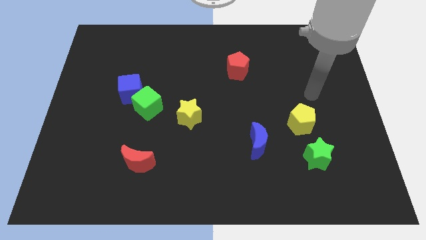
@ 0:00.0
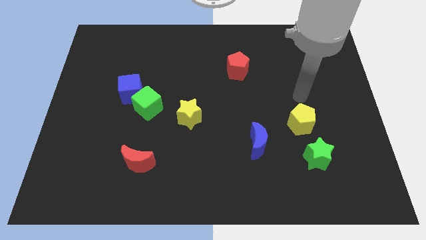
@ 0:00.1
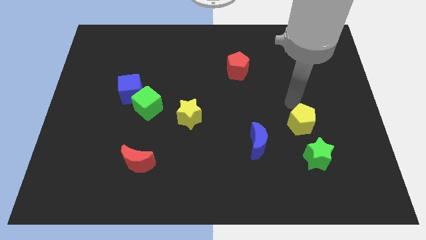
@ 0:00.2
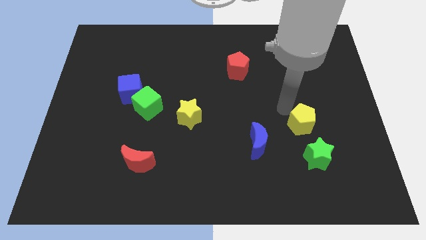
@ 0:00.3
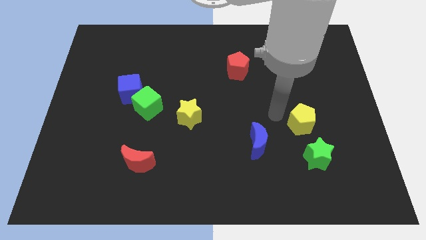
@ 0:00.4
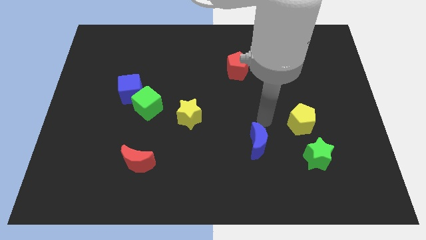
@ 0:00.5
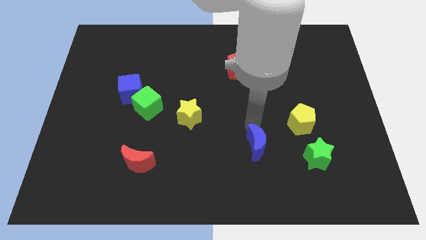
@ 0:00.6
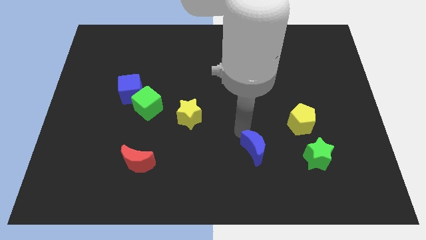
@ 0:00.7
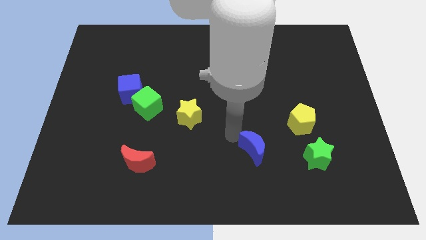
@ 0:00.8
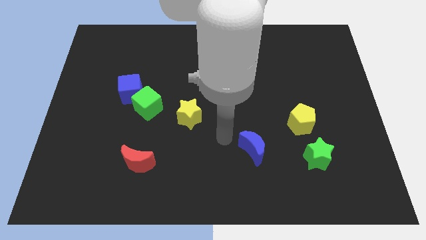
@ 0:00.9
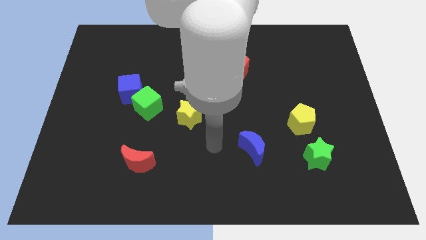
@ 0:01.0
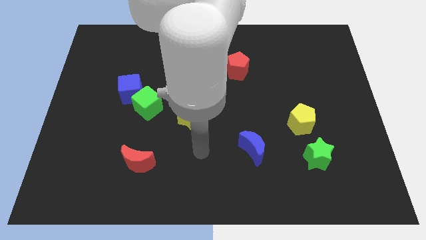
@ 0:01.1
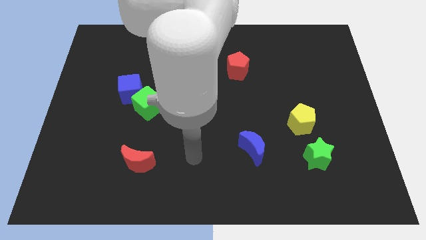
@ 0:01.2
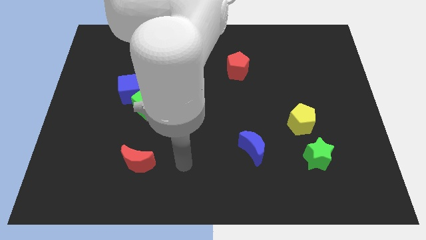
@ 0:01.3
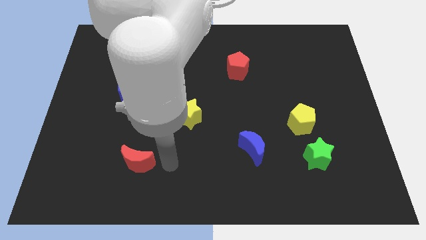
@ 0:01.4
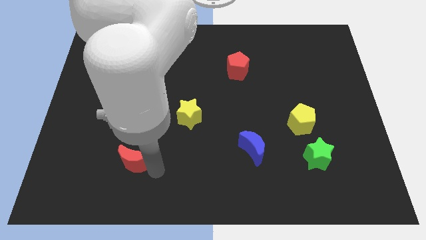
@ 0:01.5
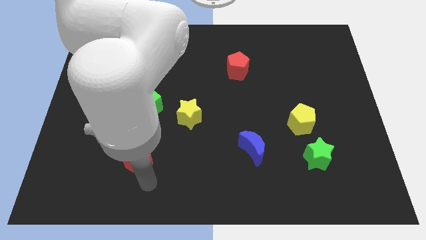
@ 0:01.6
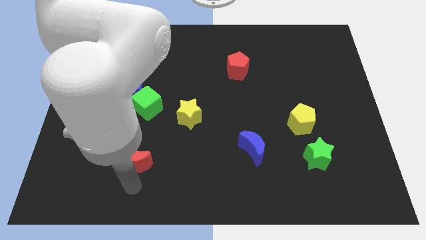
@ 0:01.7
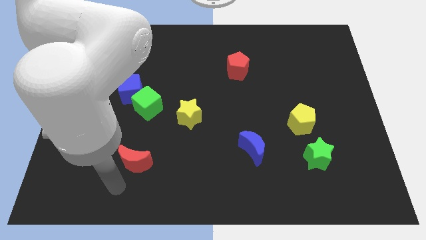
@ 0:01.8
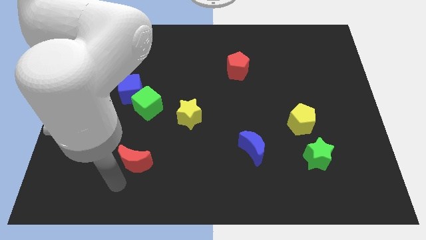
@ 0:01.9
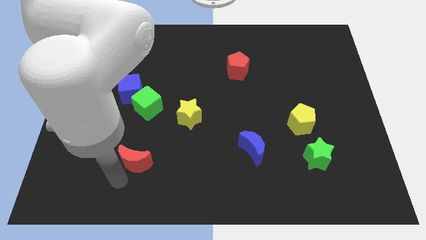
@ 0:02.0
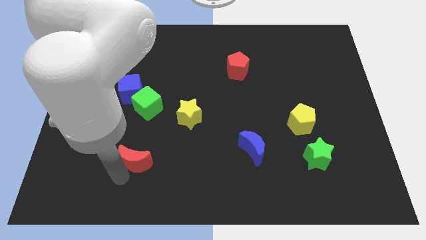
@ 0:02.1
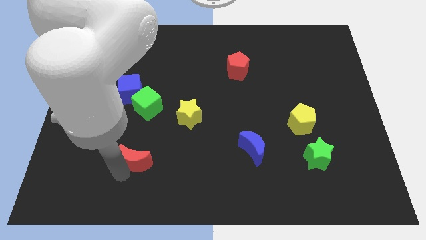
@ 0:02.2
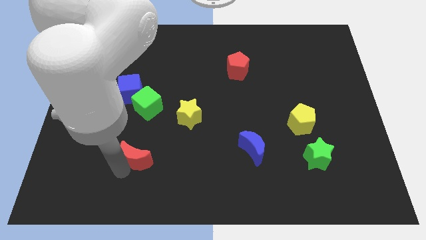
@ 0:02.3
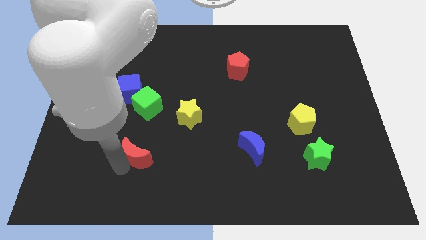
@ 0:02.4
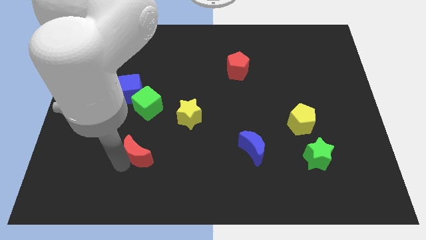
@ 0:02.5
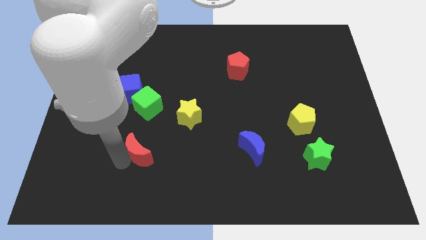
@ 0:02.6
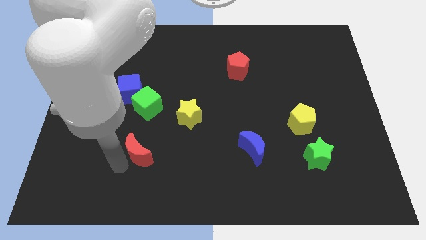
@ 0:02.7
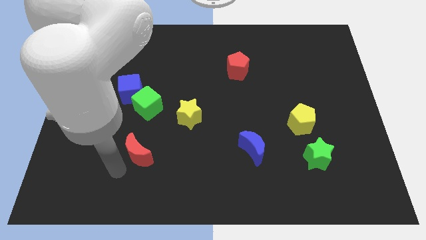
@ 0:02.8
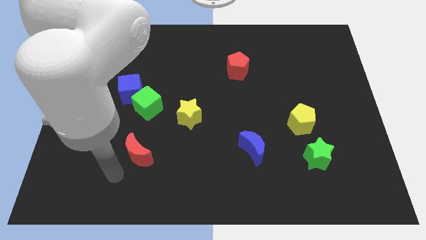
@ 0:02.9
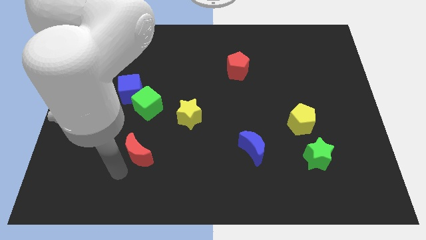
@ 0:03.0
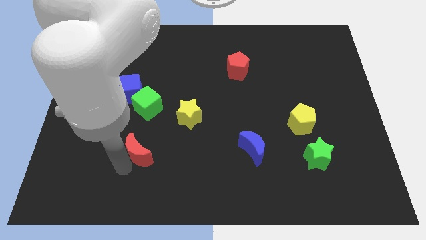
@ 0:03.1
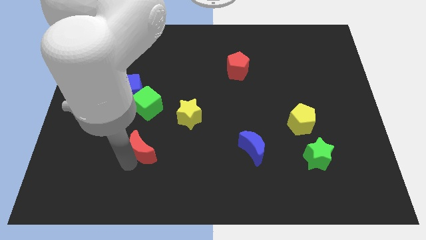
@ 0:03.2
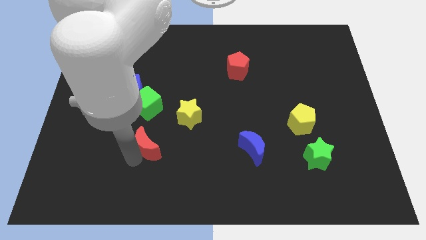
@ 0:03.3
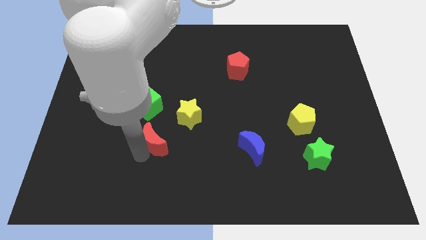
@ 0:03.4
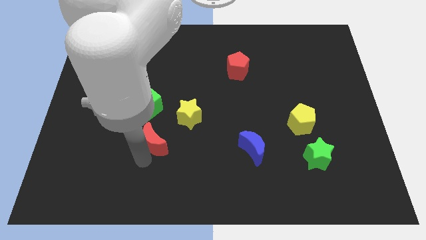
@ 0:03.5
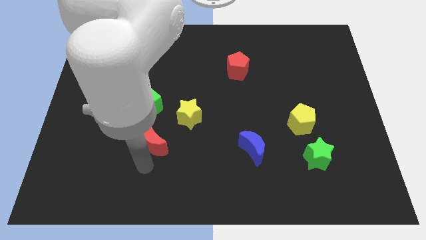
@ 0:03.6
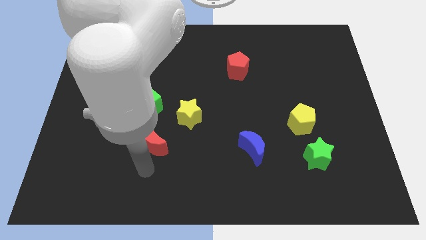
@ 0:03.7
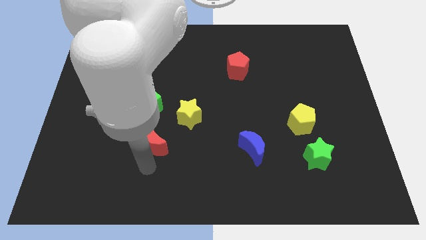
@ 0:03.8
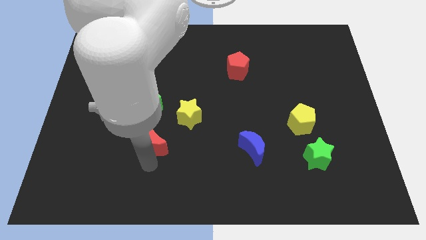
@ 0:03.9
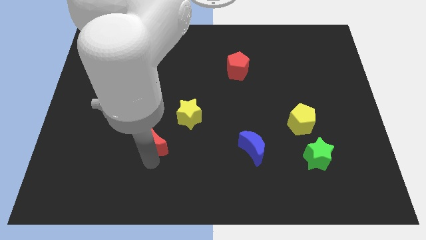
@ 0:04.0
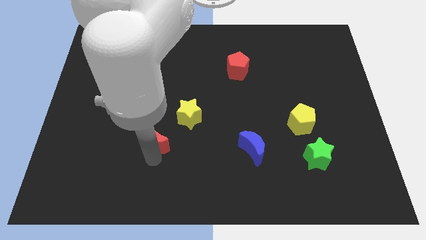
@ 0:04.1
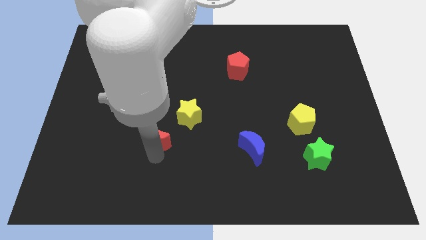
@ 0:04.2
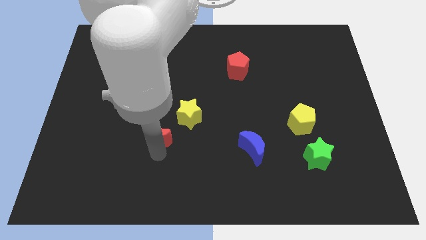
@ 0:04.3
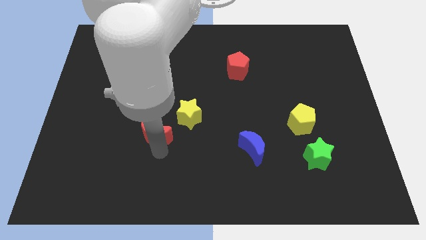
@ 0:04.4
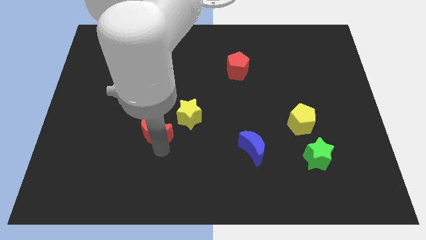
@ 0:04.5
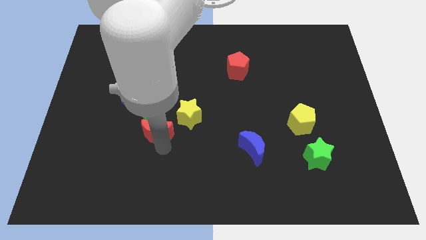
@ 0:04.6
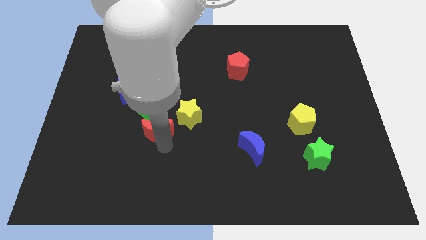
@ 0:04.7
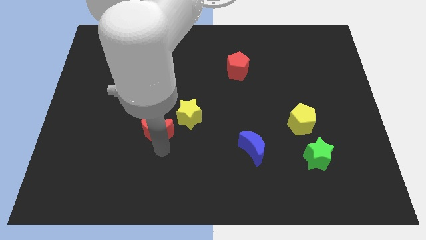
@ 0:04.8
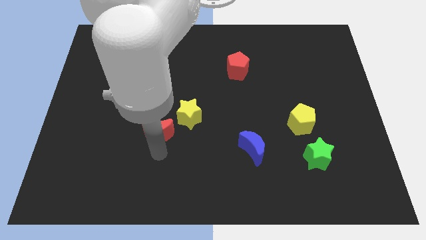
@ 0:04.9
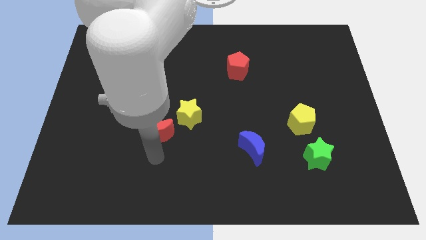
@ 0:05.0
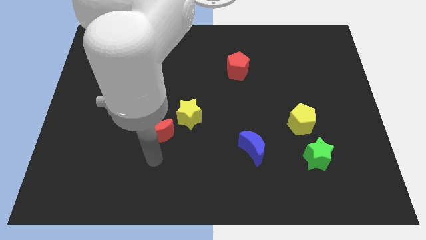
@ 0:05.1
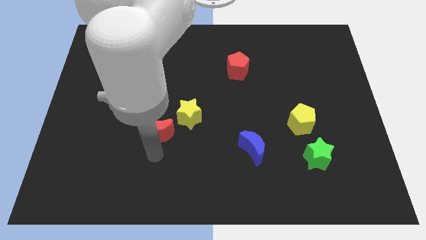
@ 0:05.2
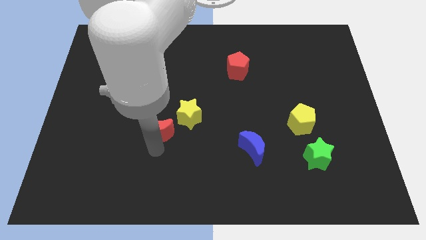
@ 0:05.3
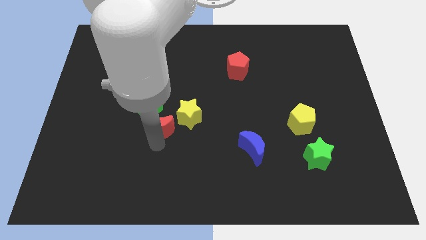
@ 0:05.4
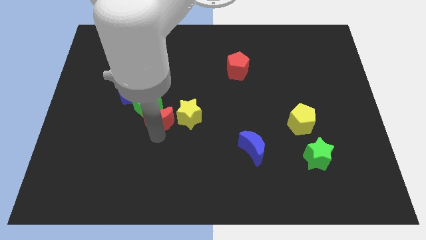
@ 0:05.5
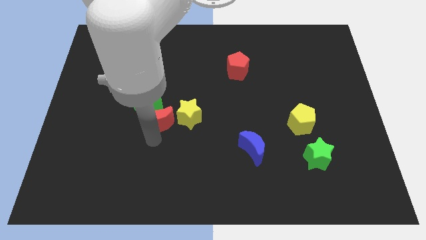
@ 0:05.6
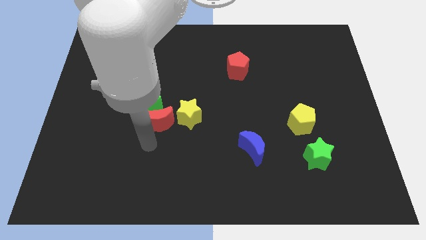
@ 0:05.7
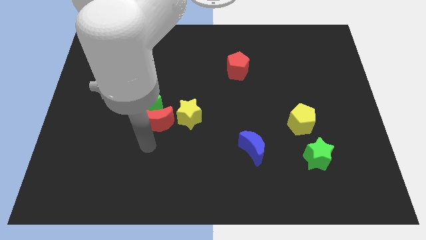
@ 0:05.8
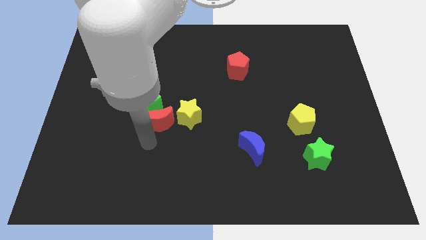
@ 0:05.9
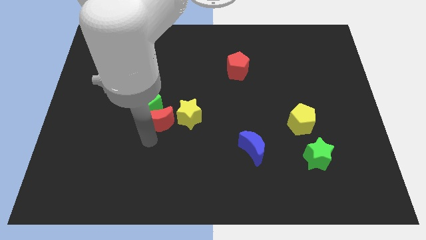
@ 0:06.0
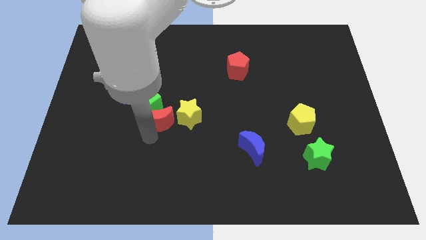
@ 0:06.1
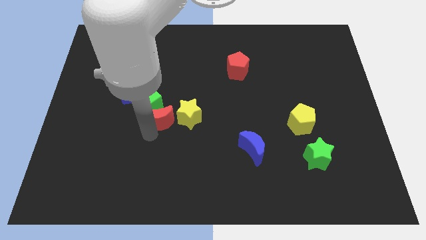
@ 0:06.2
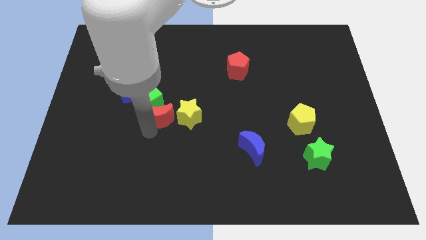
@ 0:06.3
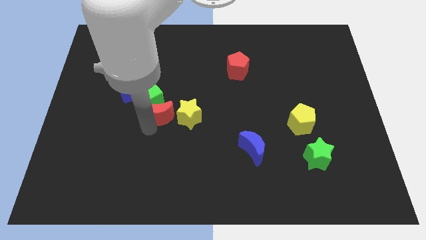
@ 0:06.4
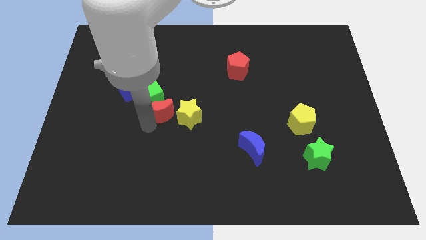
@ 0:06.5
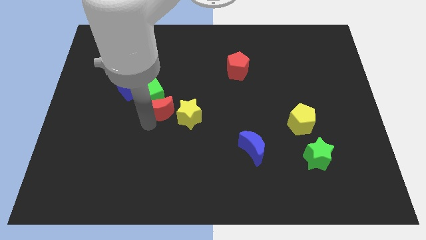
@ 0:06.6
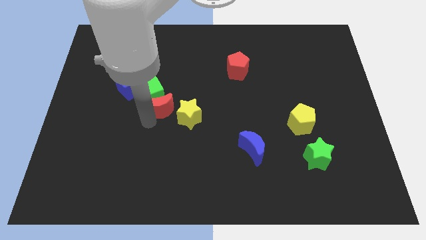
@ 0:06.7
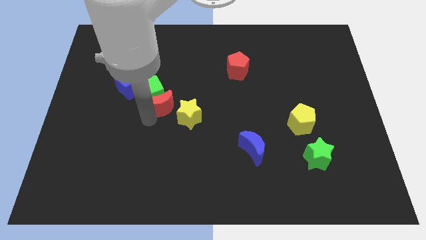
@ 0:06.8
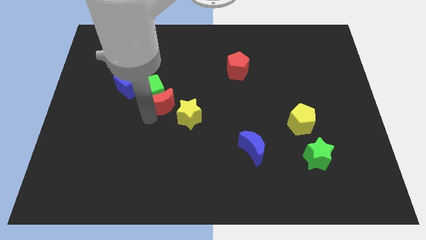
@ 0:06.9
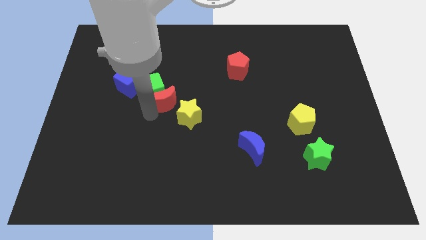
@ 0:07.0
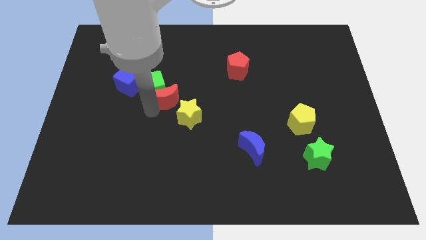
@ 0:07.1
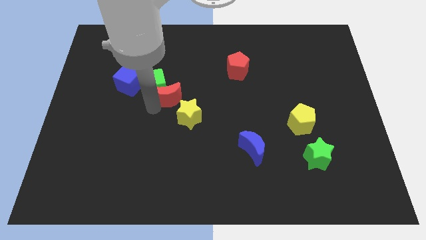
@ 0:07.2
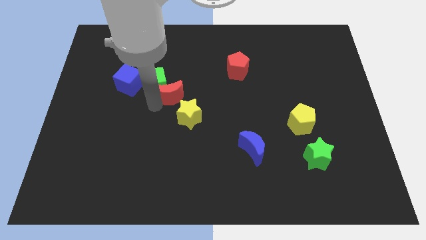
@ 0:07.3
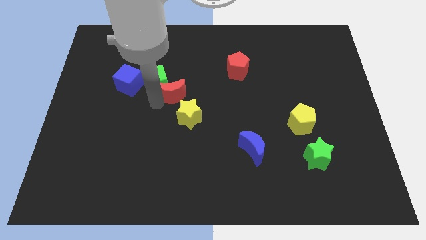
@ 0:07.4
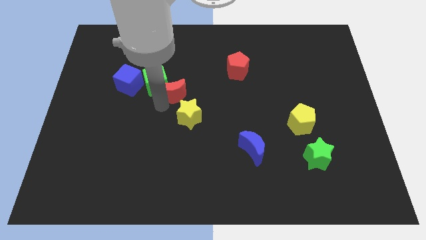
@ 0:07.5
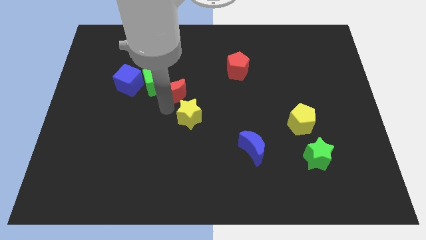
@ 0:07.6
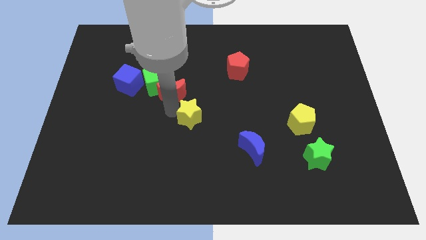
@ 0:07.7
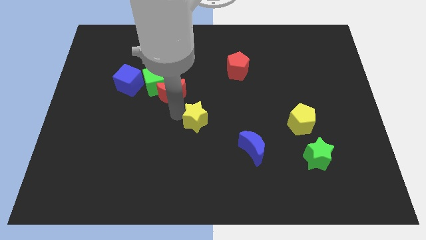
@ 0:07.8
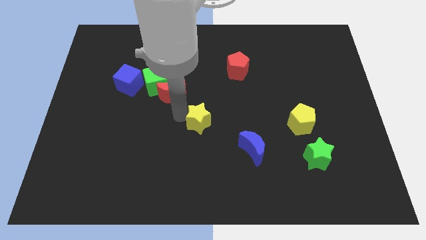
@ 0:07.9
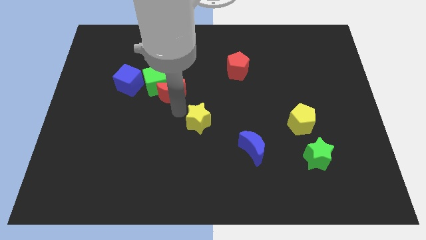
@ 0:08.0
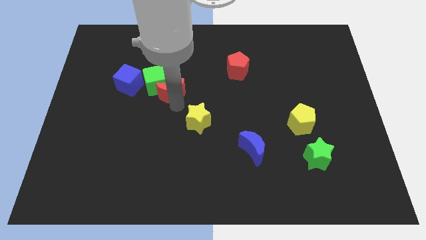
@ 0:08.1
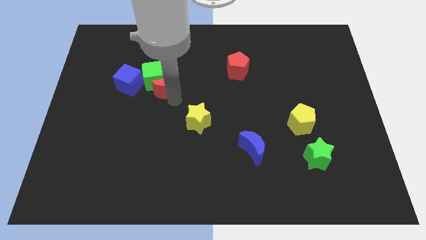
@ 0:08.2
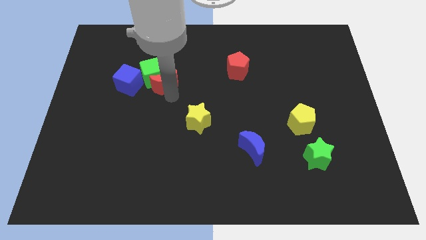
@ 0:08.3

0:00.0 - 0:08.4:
slide the red moon upwards
